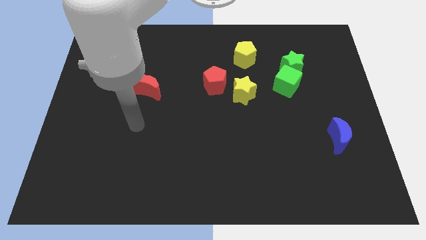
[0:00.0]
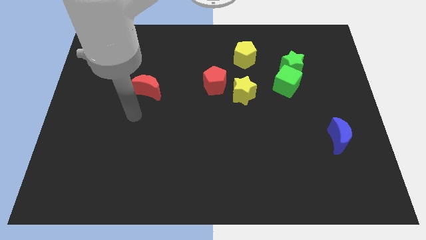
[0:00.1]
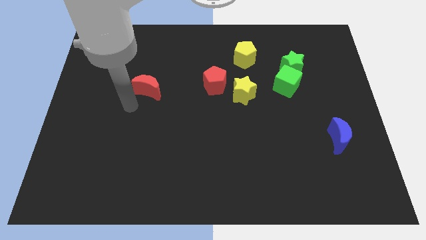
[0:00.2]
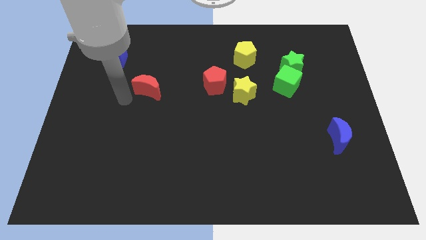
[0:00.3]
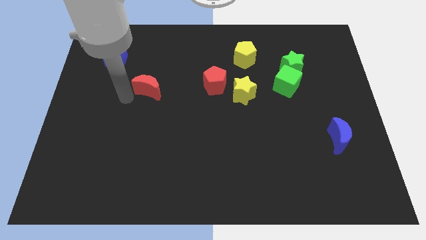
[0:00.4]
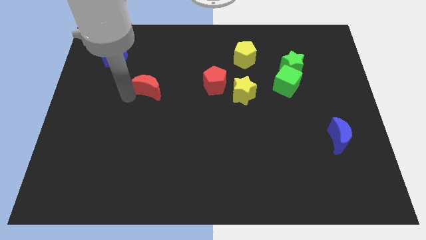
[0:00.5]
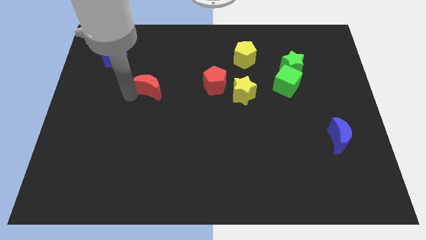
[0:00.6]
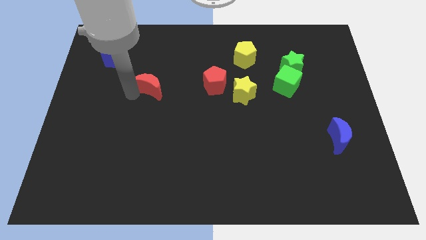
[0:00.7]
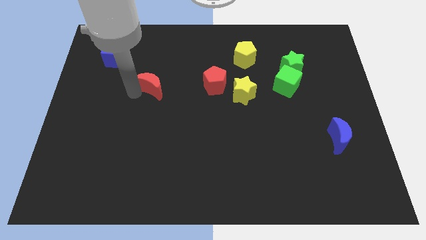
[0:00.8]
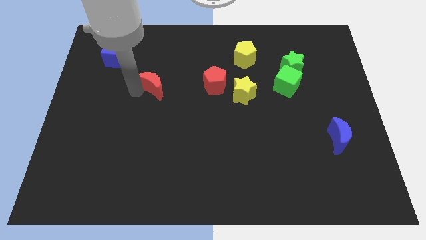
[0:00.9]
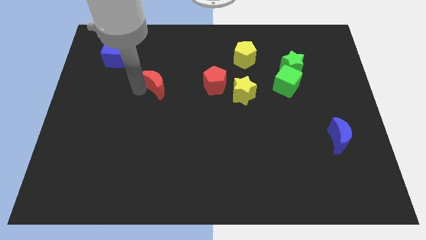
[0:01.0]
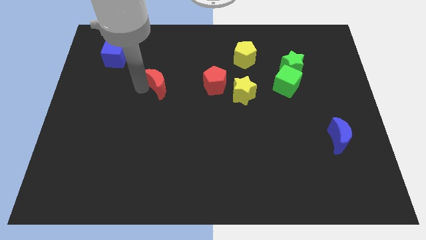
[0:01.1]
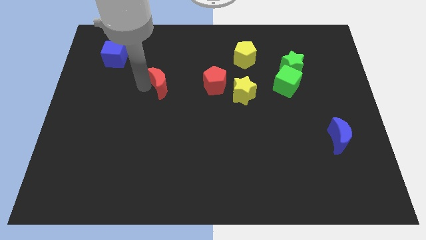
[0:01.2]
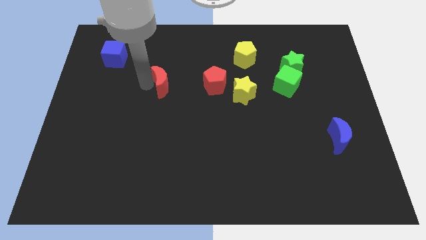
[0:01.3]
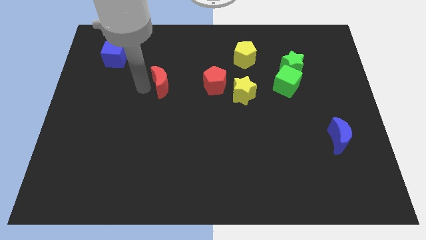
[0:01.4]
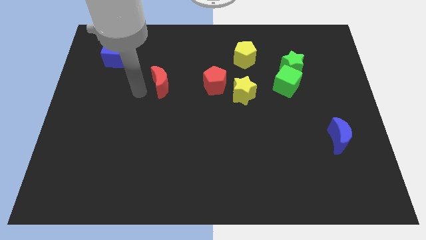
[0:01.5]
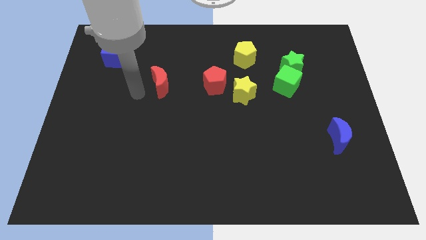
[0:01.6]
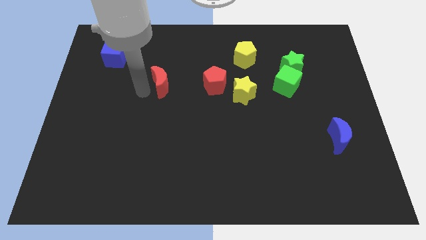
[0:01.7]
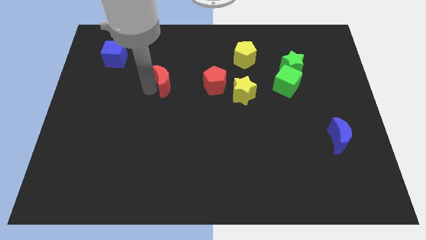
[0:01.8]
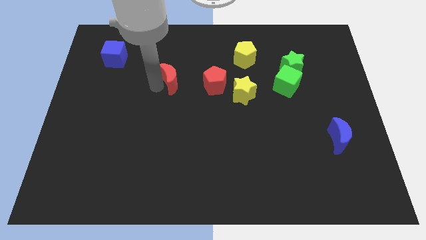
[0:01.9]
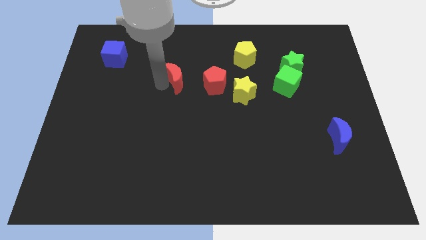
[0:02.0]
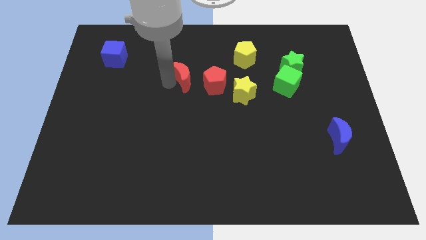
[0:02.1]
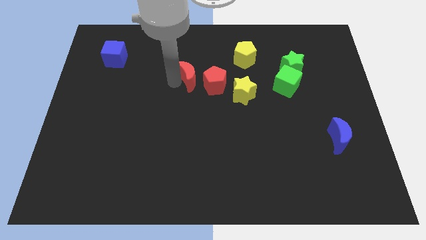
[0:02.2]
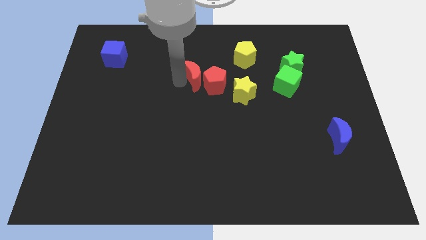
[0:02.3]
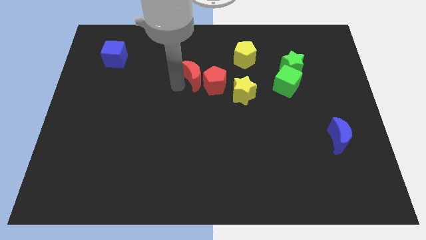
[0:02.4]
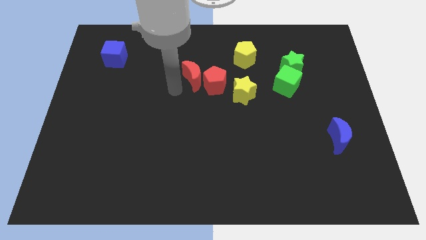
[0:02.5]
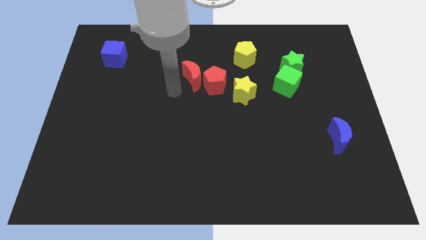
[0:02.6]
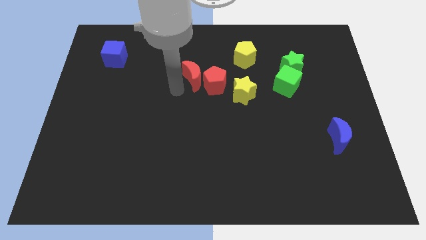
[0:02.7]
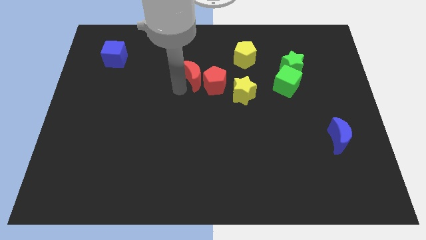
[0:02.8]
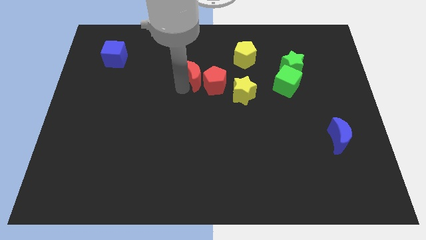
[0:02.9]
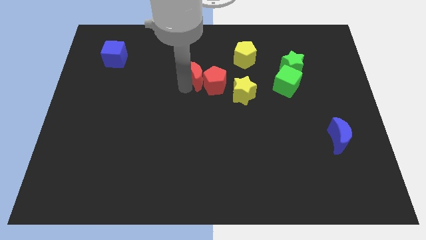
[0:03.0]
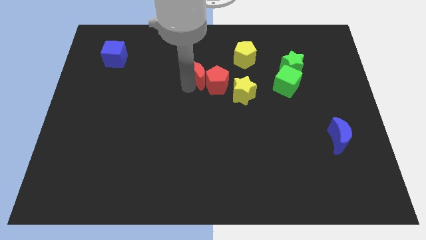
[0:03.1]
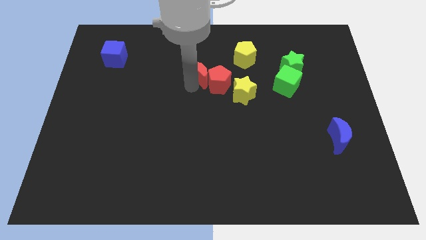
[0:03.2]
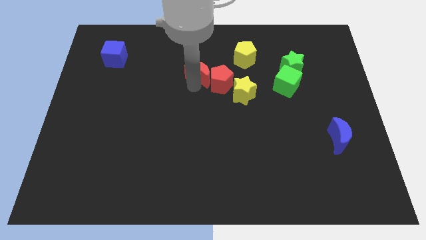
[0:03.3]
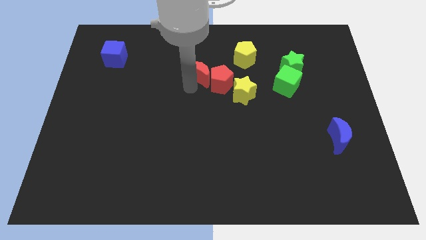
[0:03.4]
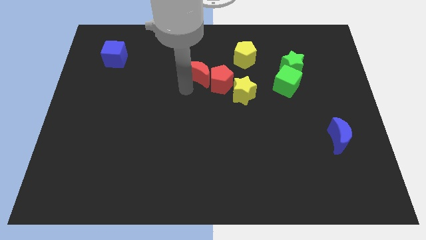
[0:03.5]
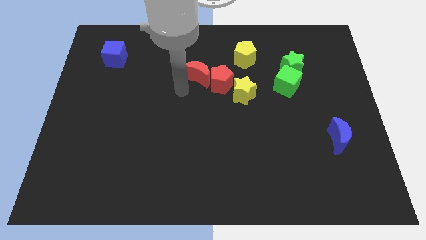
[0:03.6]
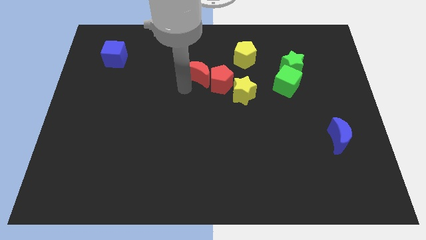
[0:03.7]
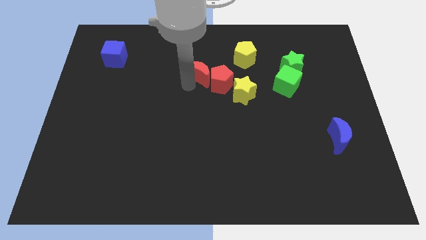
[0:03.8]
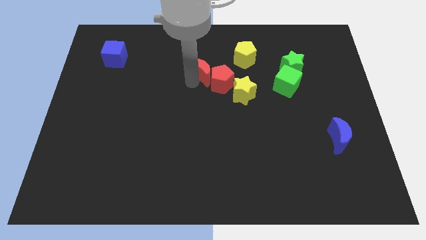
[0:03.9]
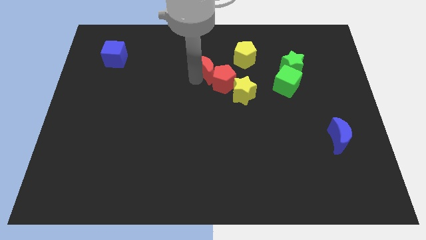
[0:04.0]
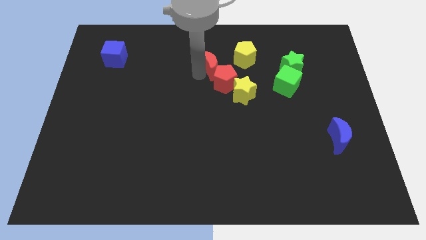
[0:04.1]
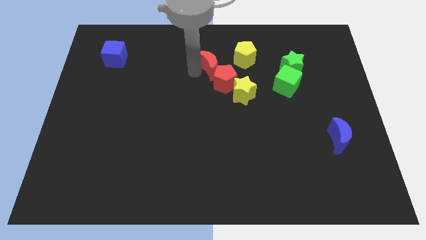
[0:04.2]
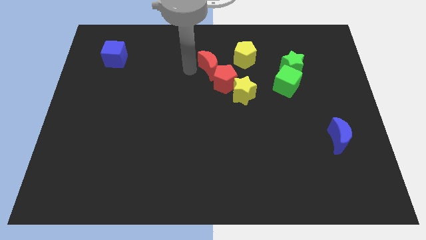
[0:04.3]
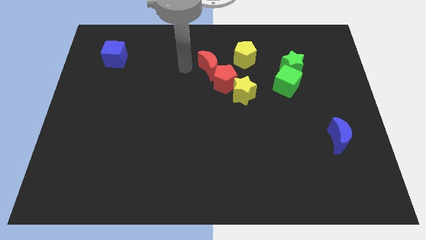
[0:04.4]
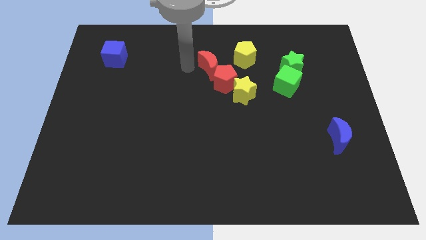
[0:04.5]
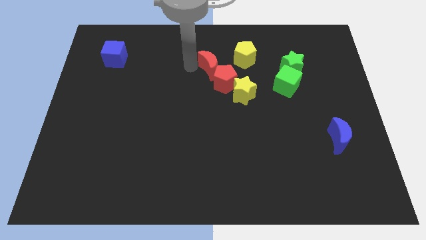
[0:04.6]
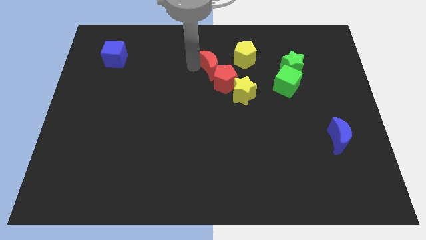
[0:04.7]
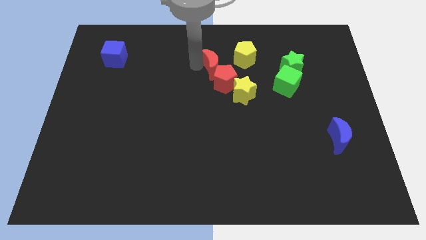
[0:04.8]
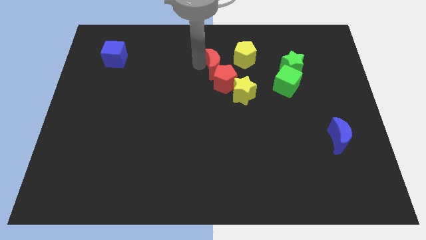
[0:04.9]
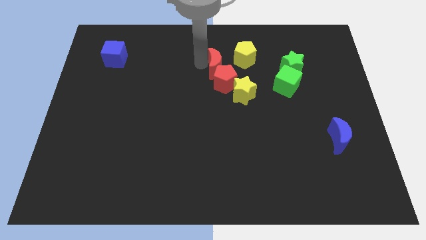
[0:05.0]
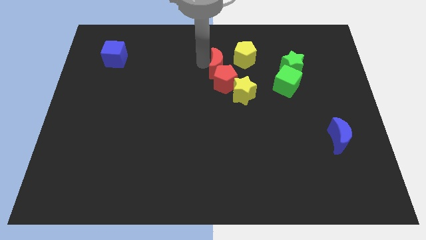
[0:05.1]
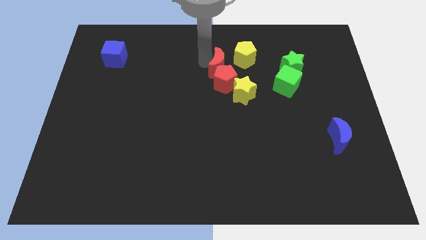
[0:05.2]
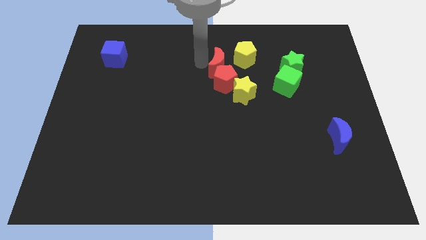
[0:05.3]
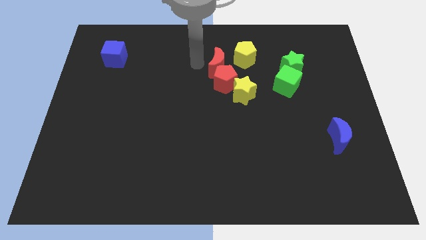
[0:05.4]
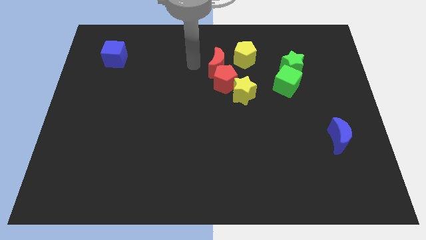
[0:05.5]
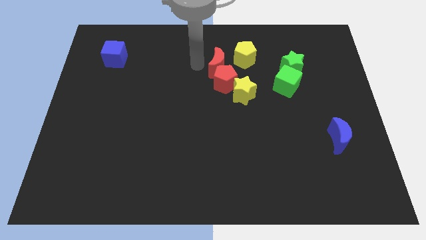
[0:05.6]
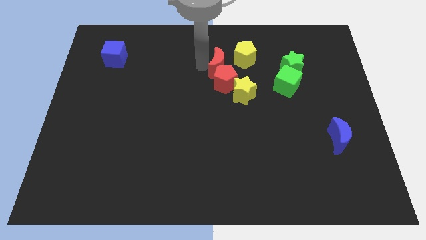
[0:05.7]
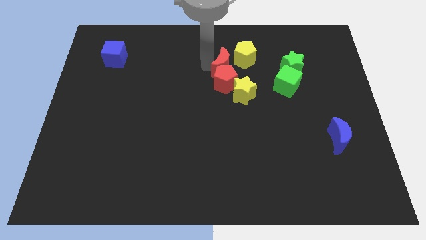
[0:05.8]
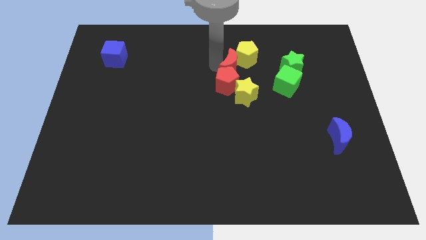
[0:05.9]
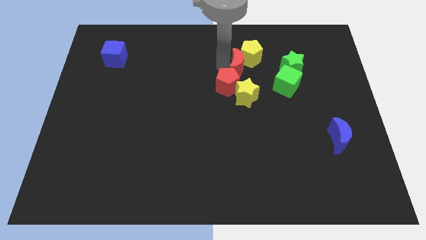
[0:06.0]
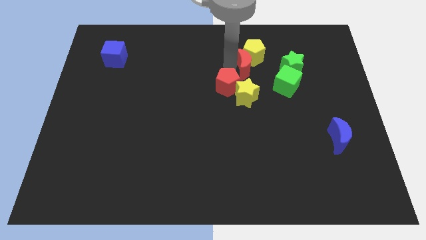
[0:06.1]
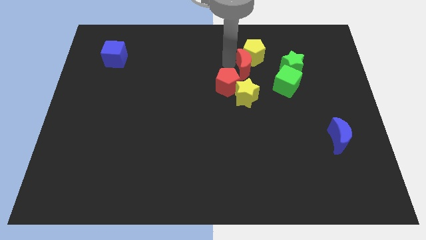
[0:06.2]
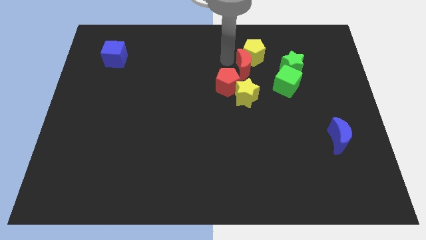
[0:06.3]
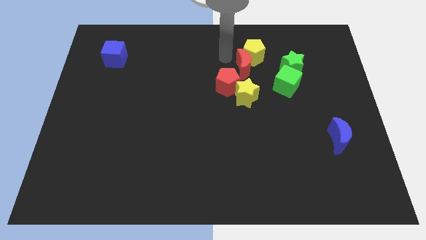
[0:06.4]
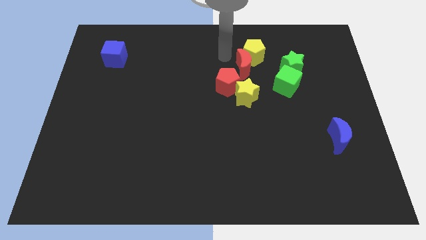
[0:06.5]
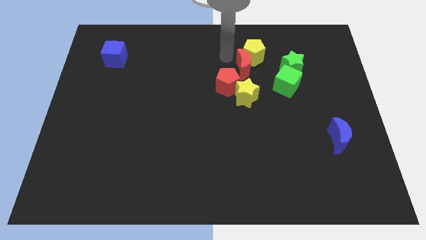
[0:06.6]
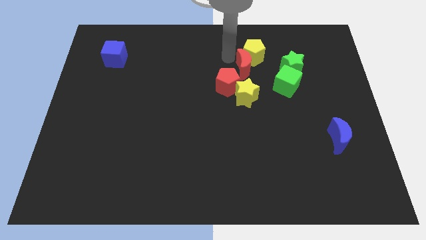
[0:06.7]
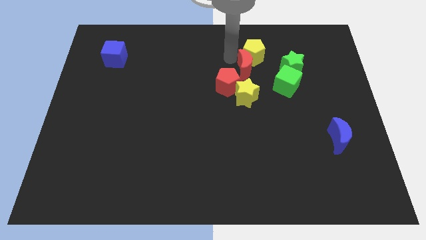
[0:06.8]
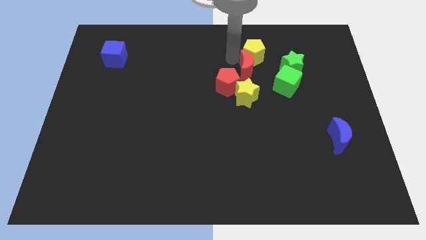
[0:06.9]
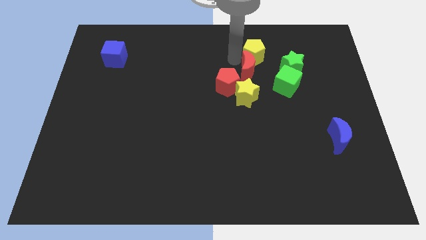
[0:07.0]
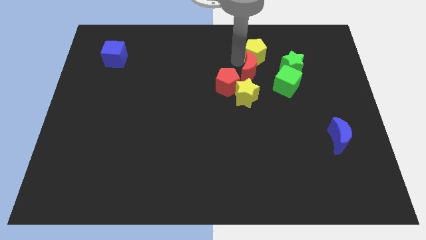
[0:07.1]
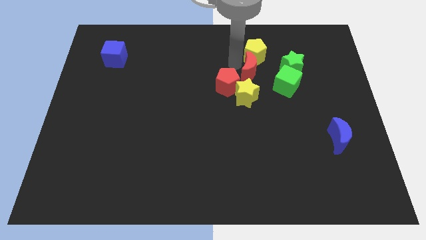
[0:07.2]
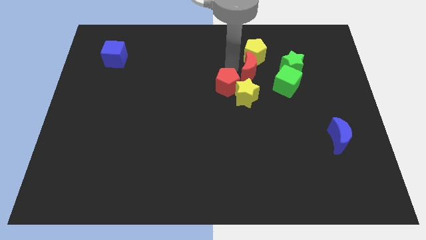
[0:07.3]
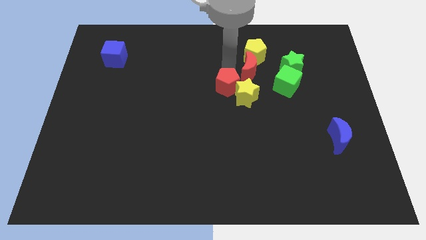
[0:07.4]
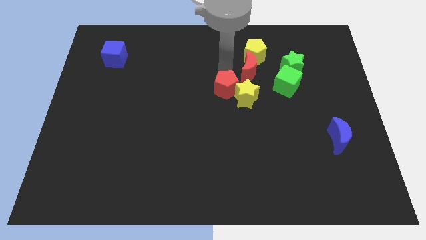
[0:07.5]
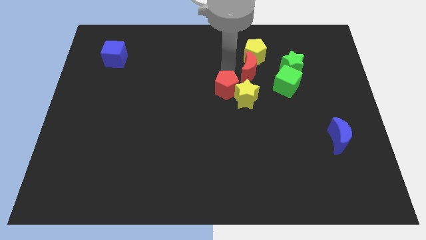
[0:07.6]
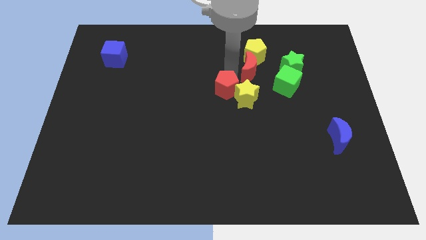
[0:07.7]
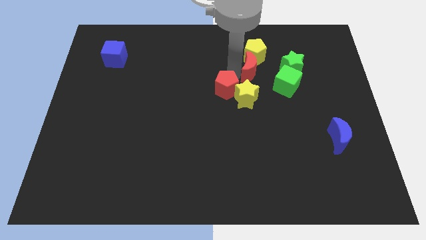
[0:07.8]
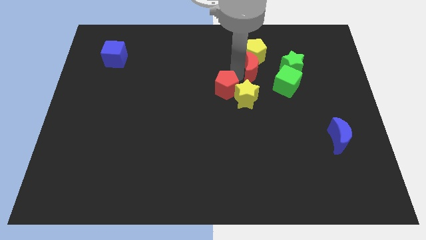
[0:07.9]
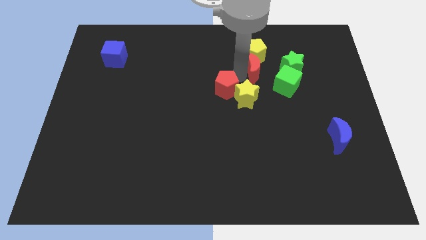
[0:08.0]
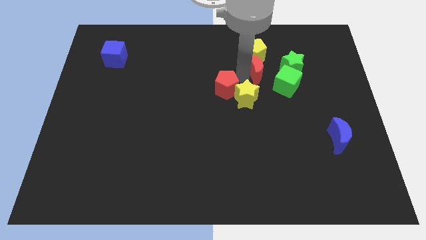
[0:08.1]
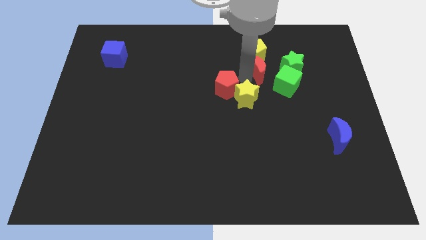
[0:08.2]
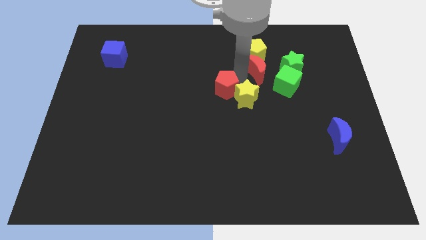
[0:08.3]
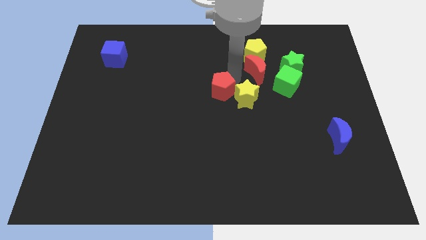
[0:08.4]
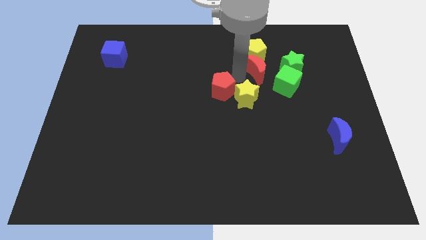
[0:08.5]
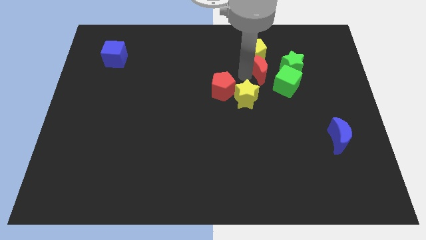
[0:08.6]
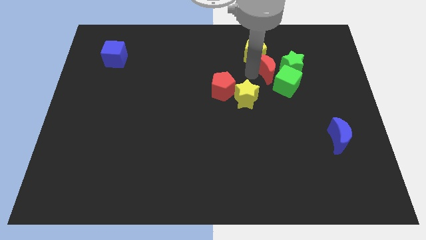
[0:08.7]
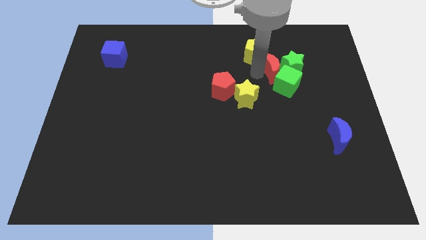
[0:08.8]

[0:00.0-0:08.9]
put the red moon next to the green star
